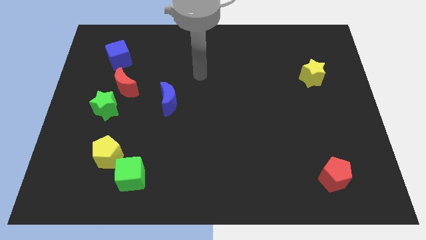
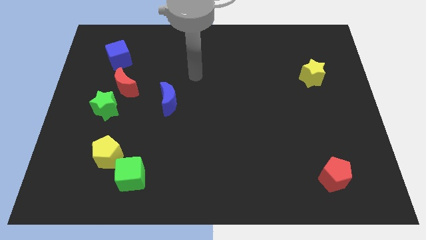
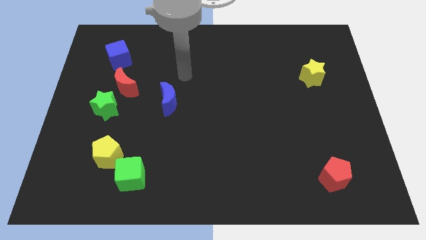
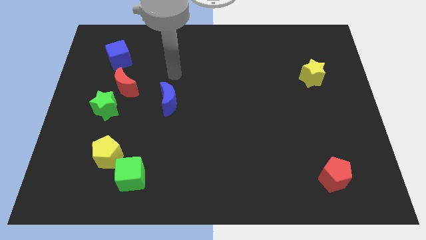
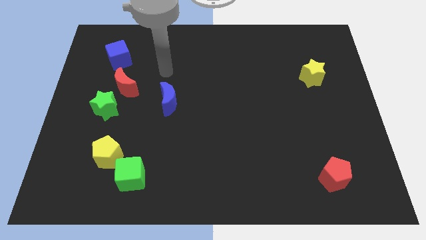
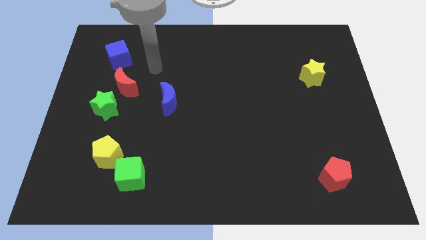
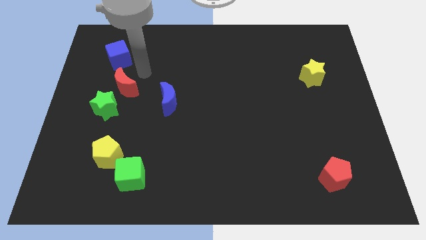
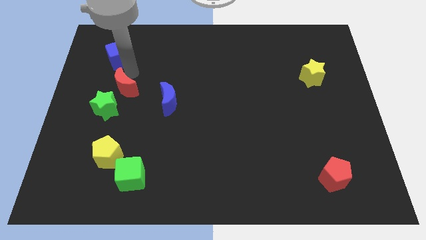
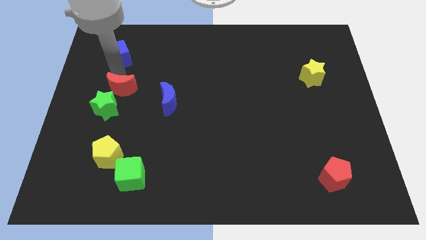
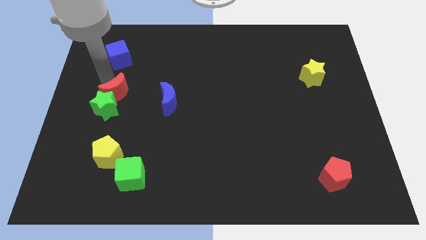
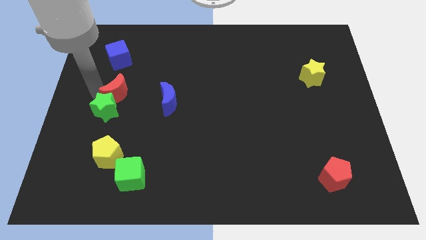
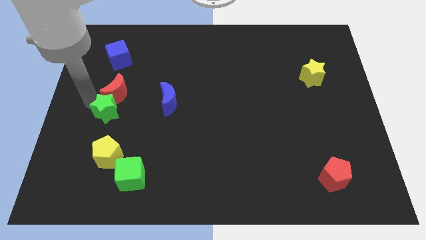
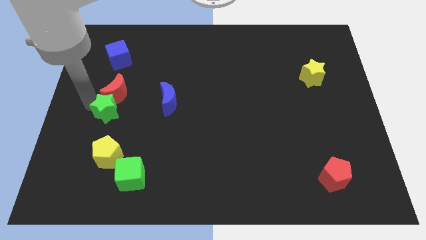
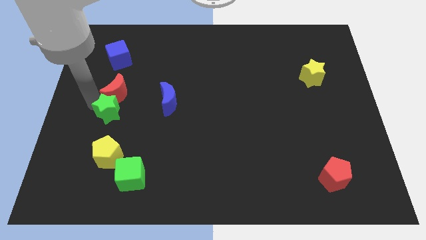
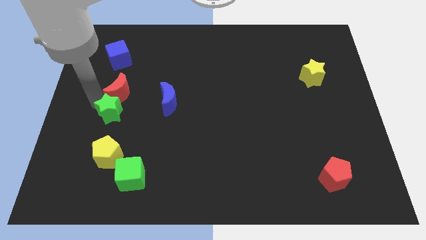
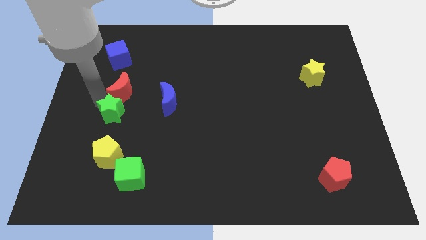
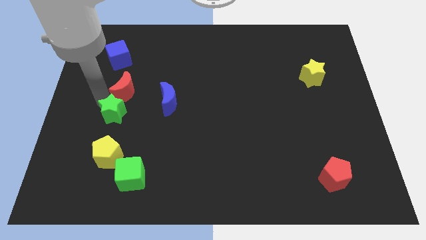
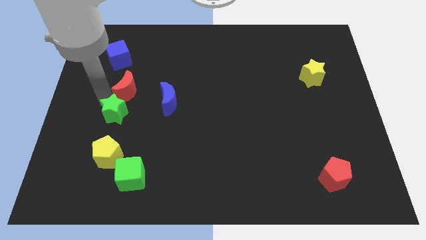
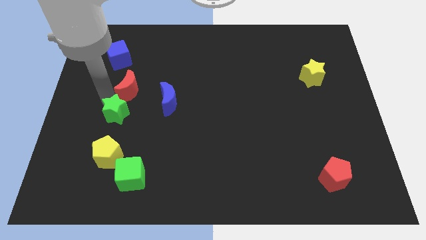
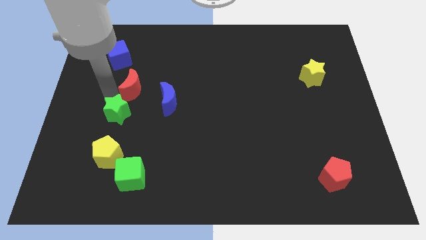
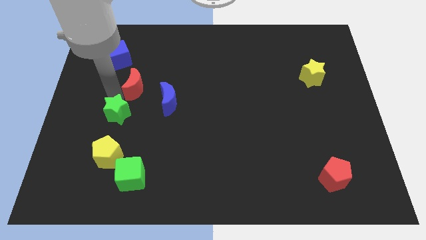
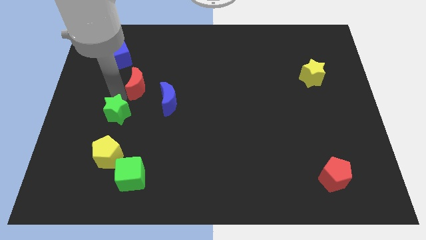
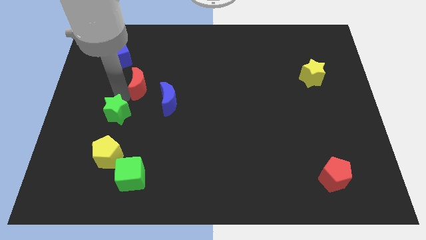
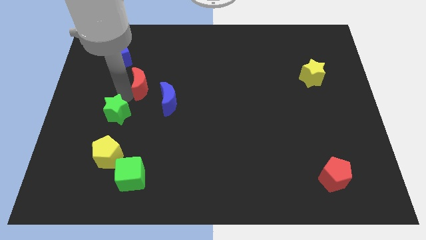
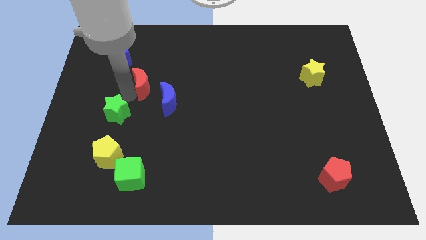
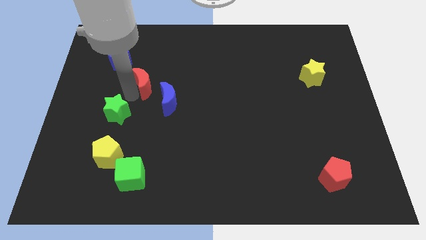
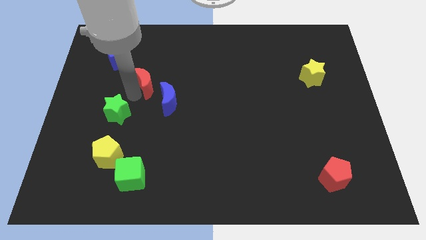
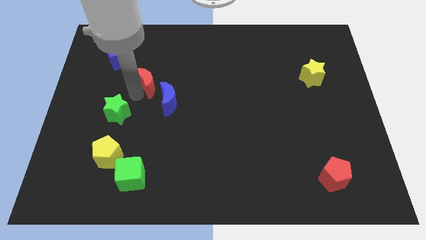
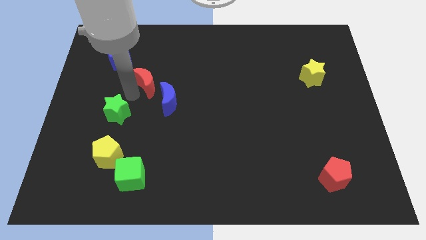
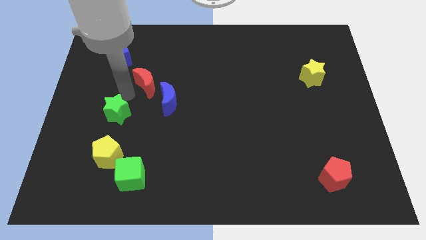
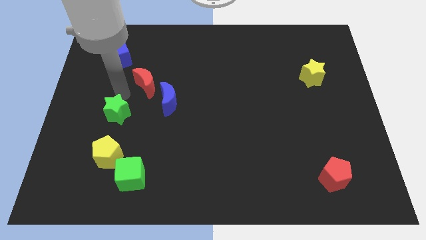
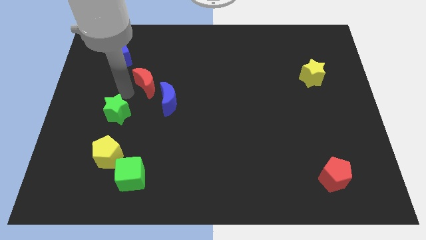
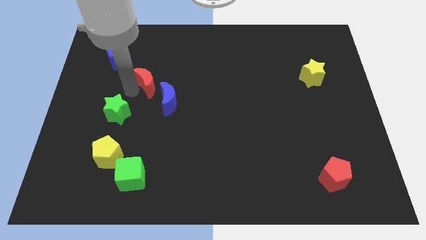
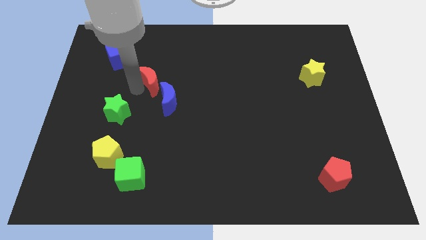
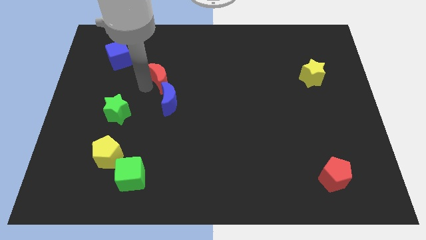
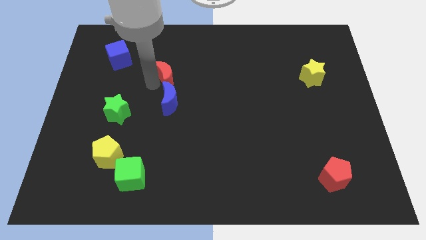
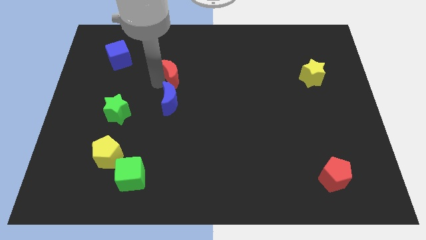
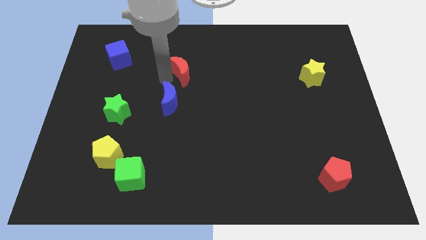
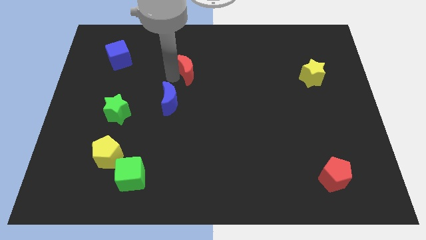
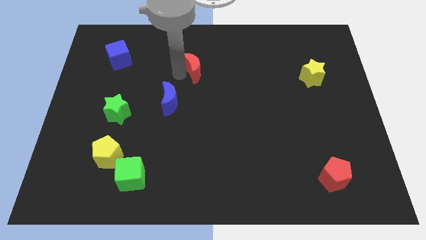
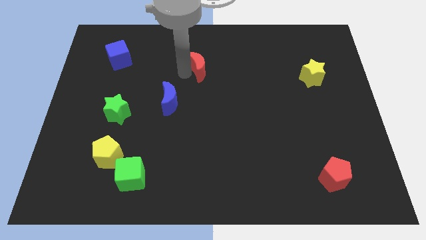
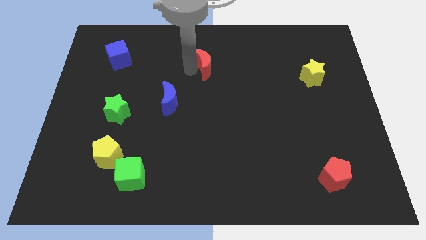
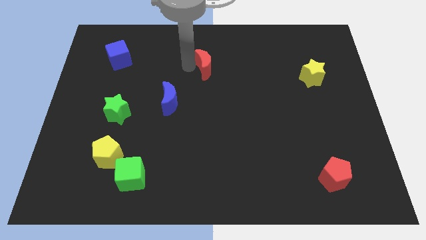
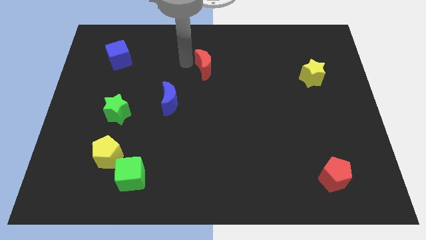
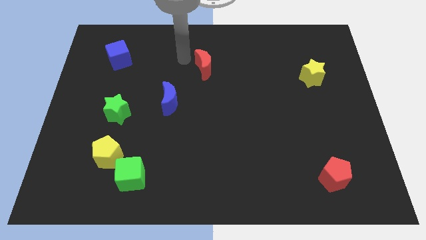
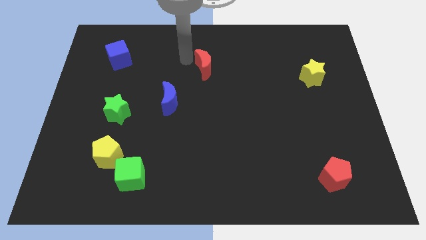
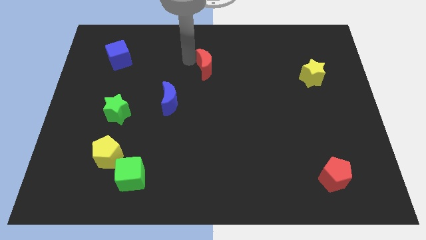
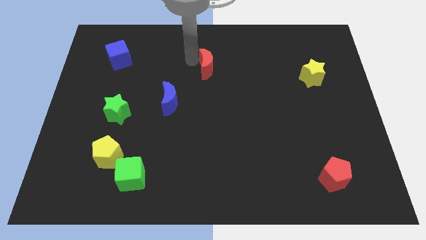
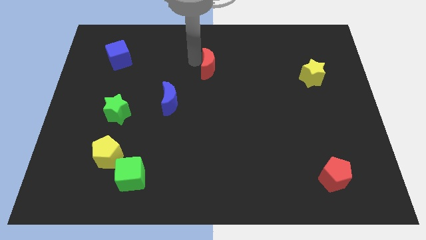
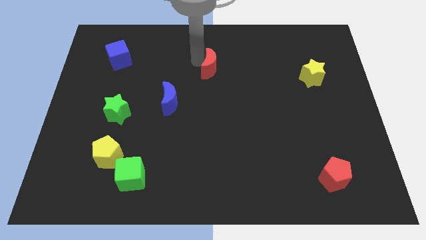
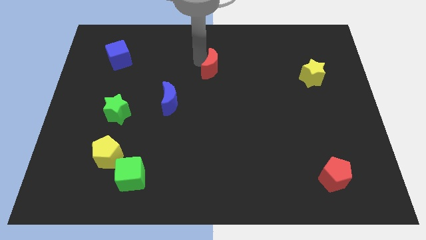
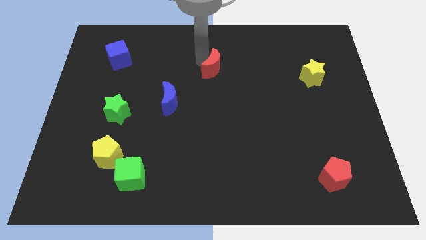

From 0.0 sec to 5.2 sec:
slide the red moon right

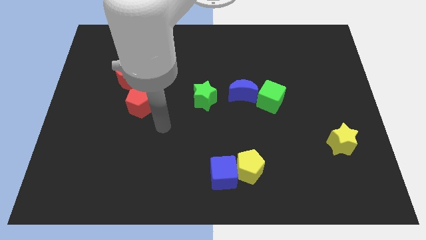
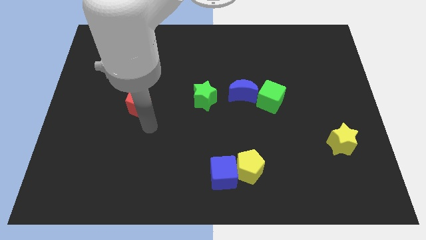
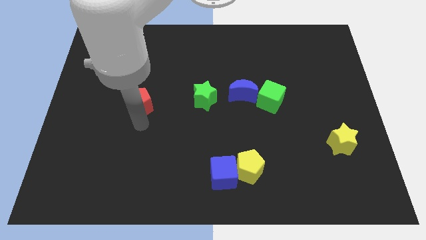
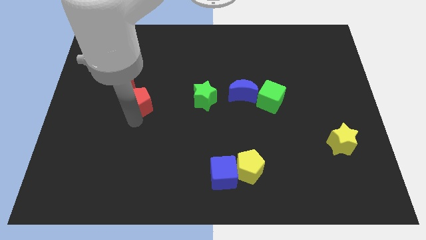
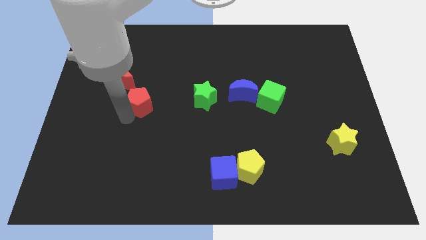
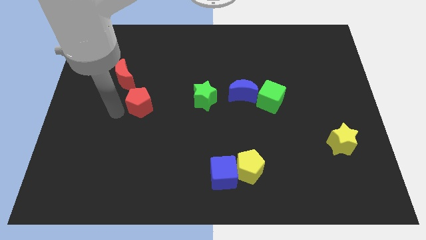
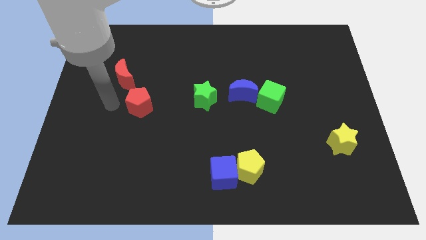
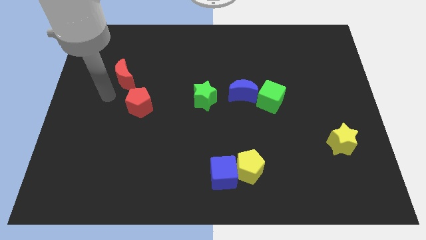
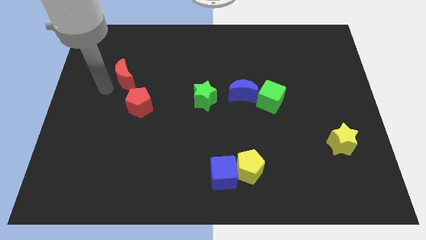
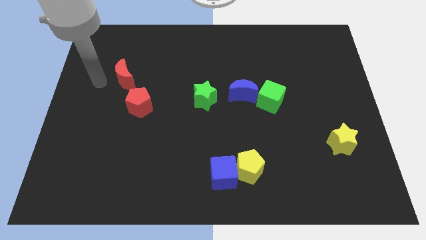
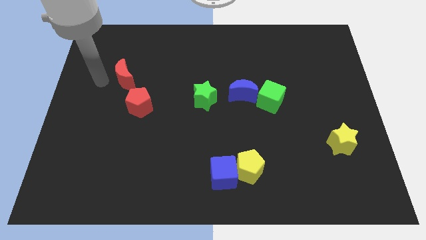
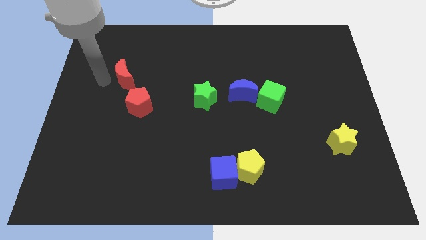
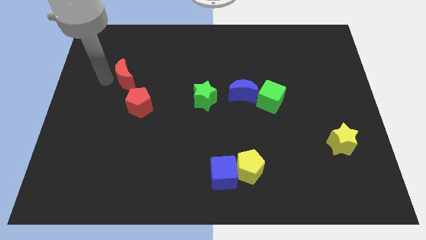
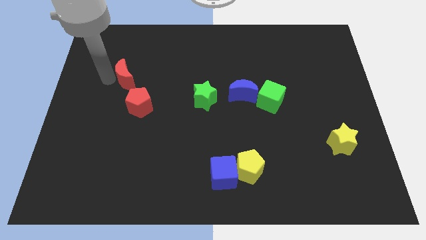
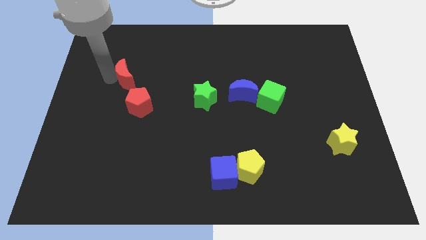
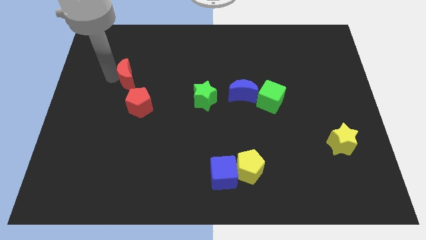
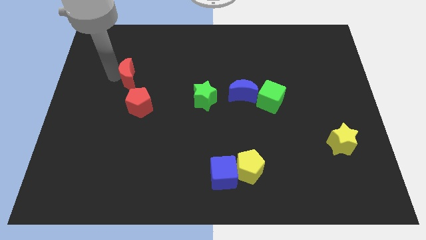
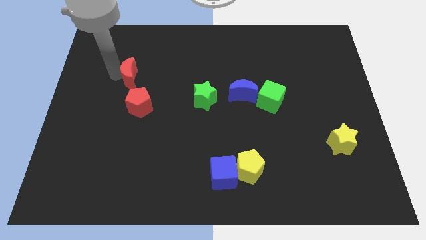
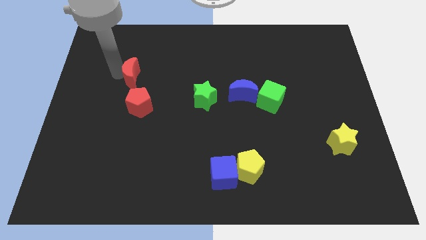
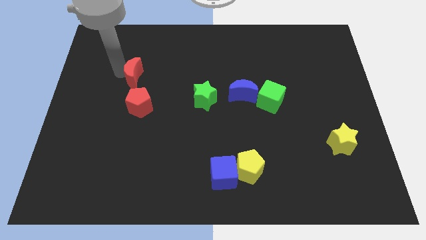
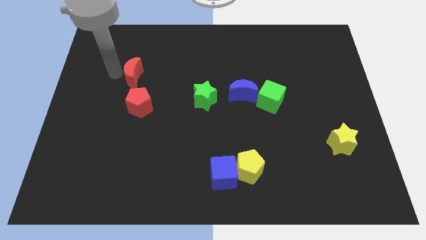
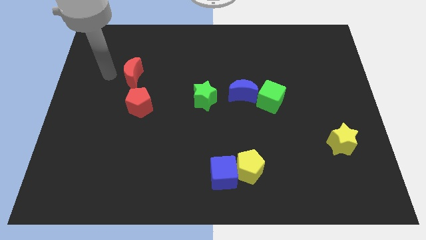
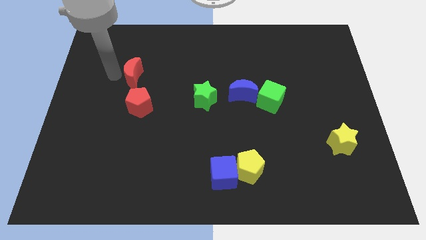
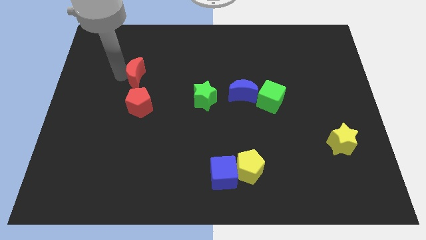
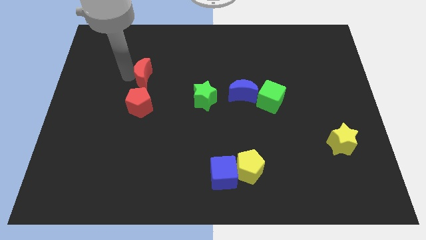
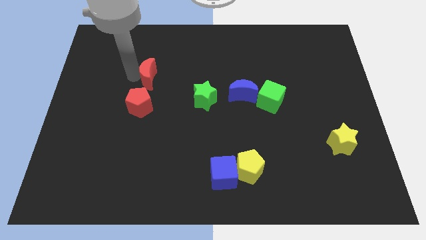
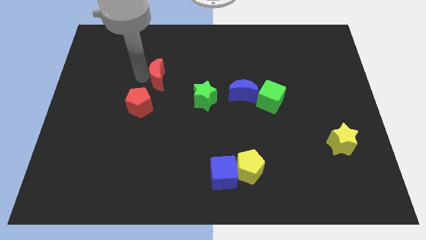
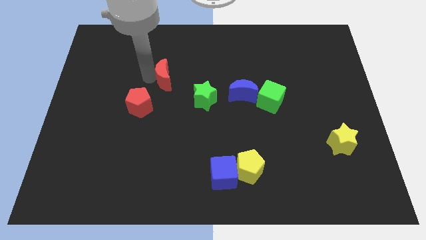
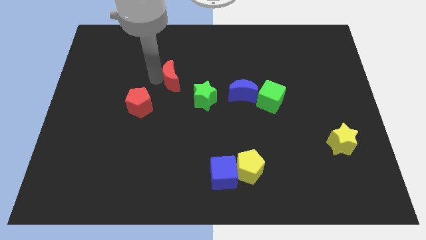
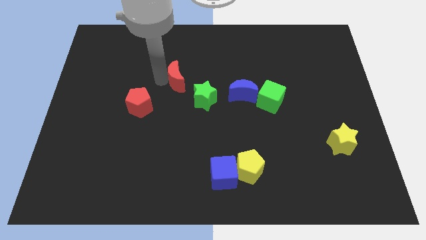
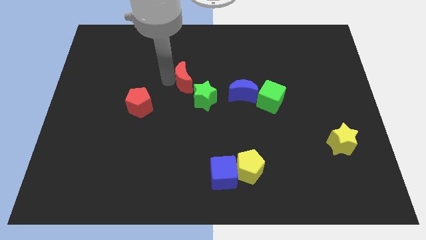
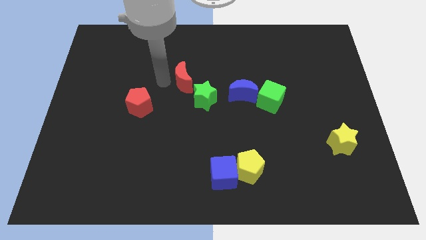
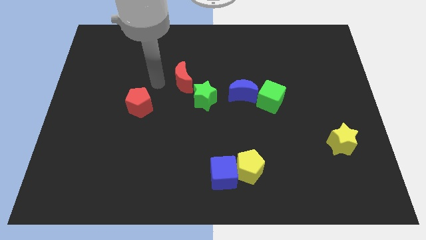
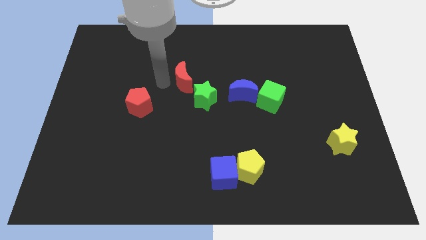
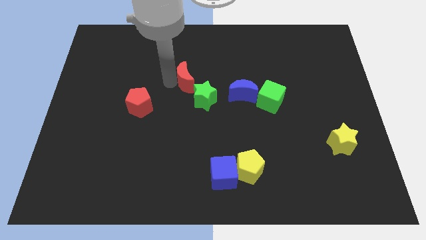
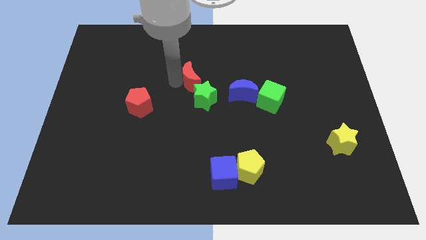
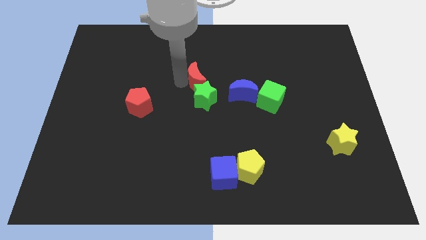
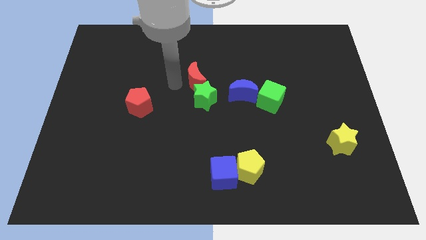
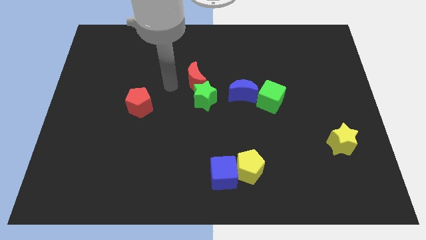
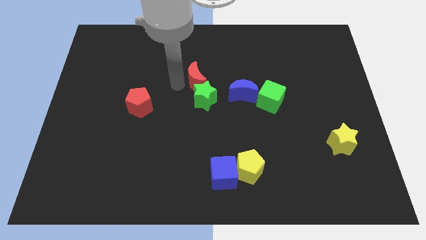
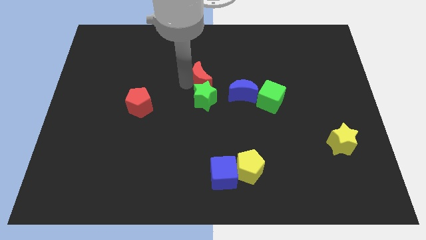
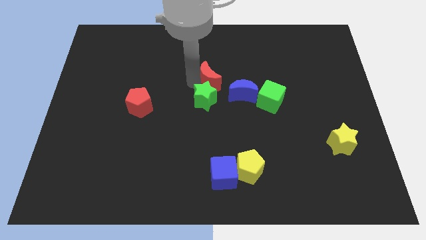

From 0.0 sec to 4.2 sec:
push the red moon right
